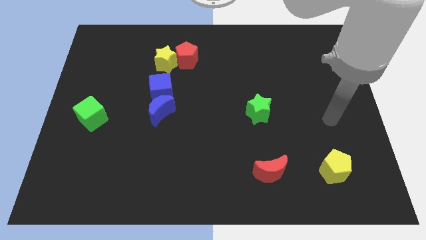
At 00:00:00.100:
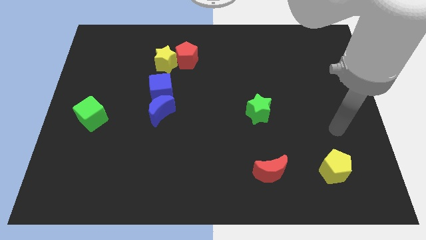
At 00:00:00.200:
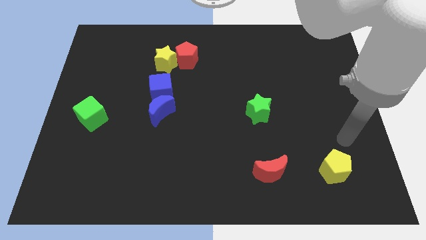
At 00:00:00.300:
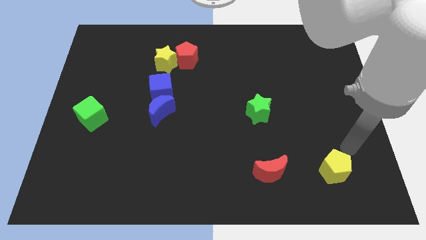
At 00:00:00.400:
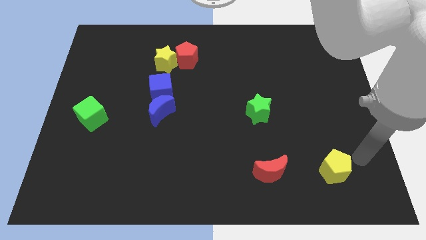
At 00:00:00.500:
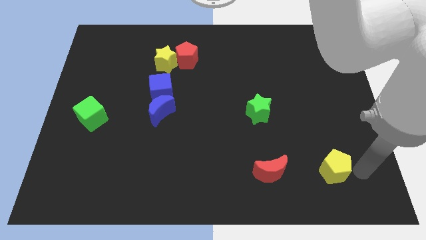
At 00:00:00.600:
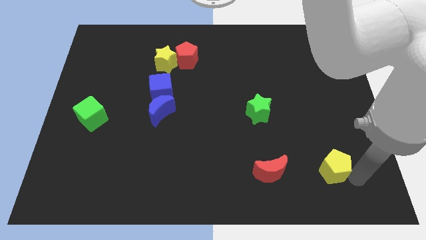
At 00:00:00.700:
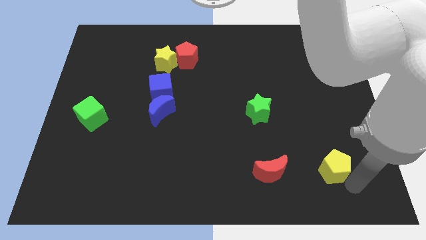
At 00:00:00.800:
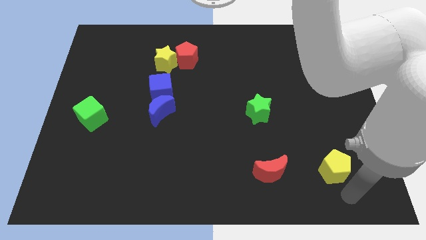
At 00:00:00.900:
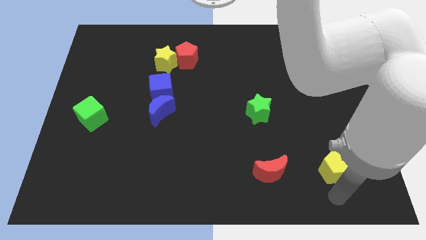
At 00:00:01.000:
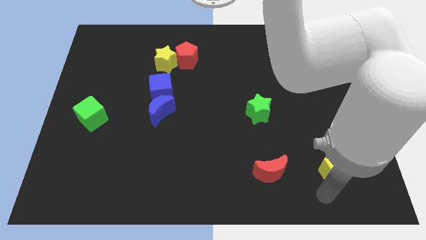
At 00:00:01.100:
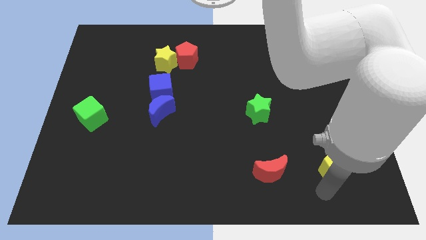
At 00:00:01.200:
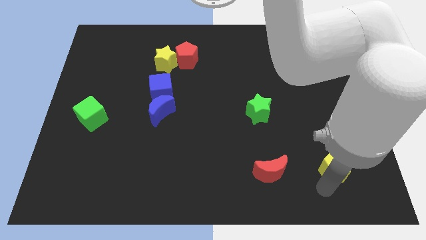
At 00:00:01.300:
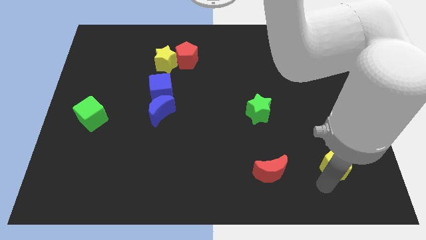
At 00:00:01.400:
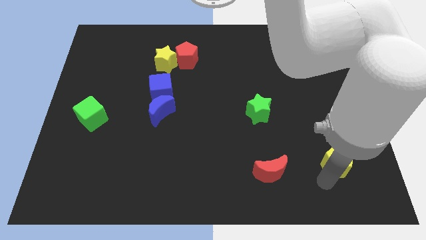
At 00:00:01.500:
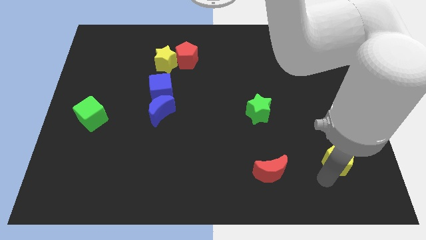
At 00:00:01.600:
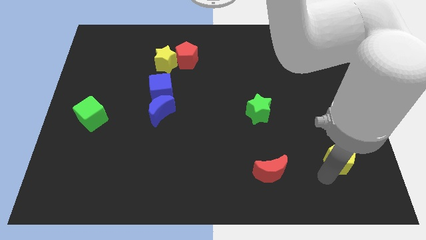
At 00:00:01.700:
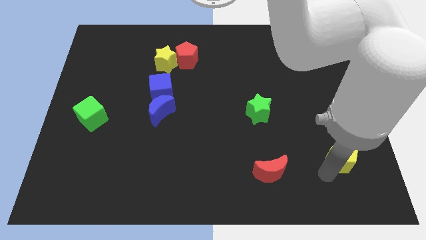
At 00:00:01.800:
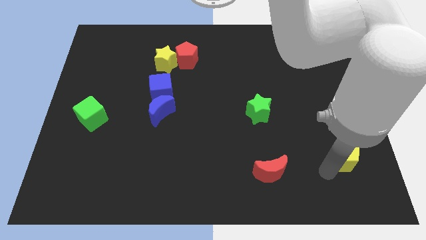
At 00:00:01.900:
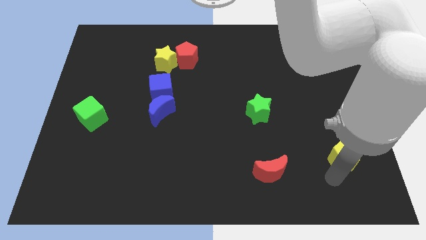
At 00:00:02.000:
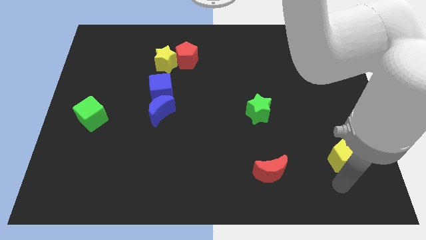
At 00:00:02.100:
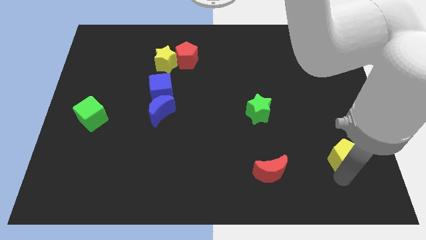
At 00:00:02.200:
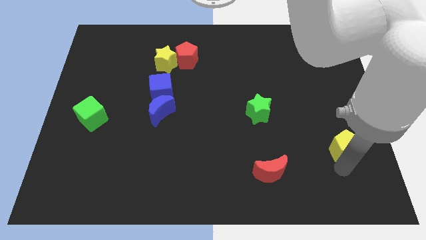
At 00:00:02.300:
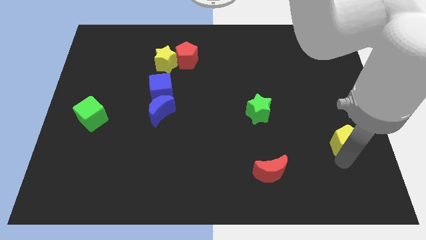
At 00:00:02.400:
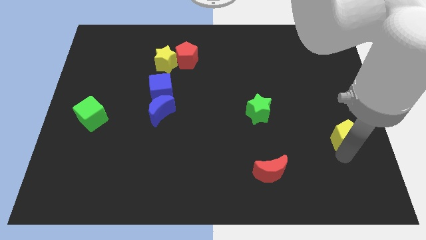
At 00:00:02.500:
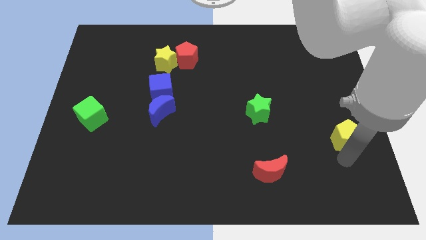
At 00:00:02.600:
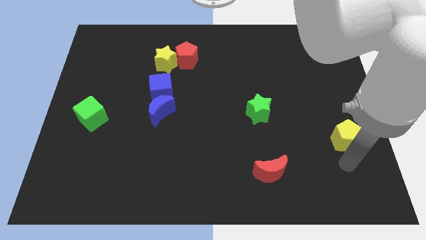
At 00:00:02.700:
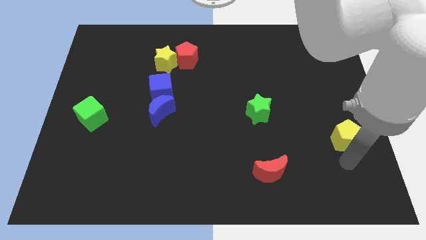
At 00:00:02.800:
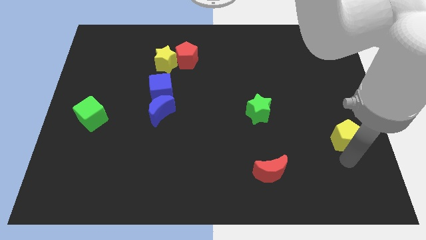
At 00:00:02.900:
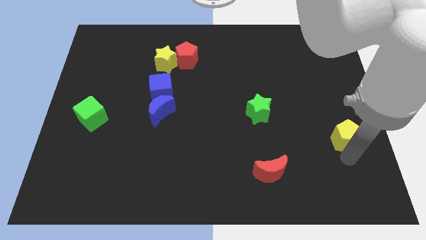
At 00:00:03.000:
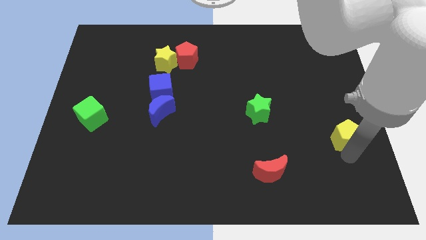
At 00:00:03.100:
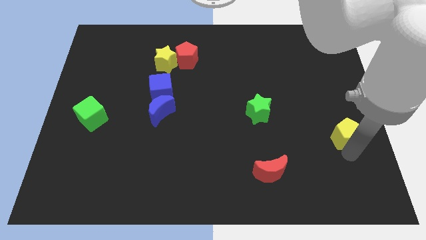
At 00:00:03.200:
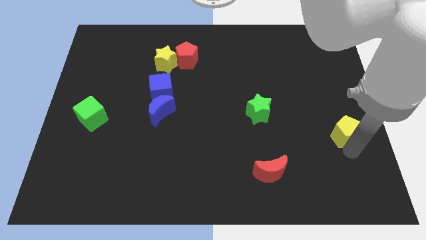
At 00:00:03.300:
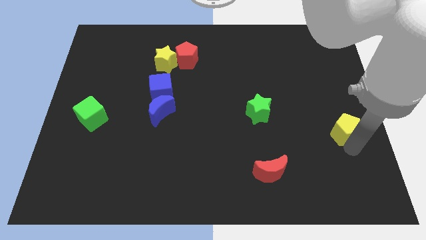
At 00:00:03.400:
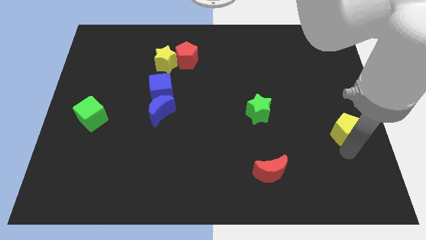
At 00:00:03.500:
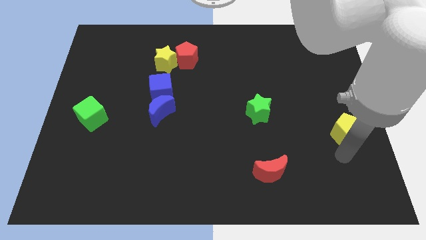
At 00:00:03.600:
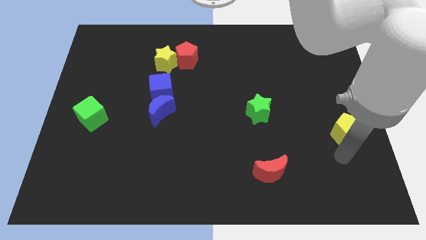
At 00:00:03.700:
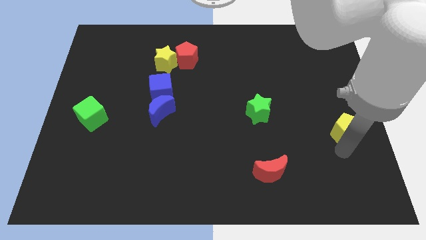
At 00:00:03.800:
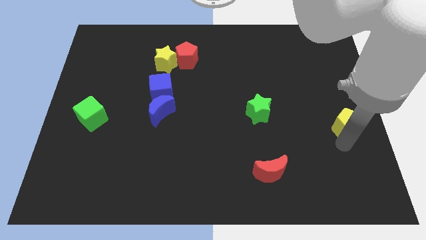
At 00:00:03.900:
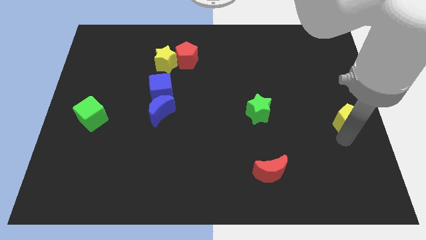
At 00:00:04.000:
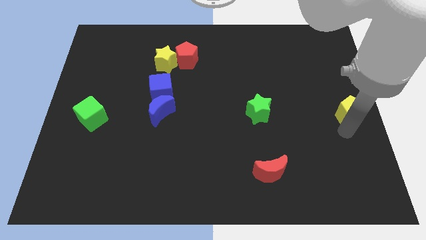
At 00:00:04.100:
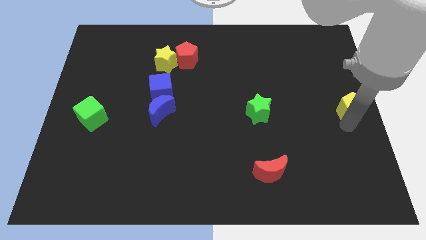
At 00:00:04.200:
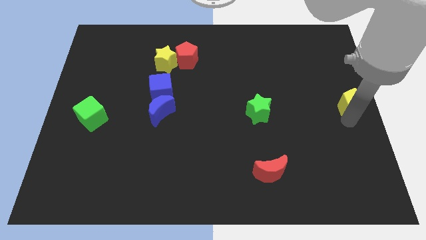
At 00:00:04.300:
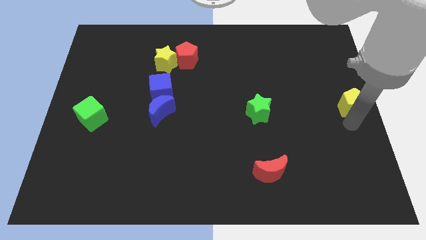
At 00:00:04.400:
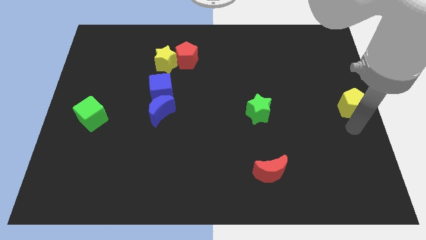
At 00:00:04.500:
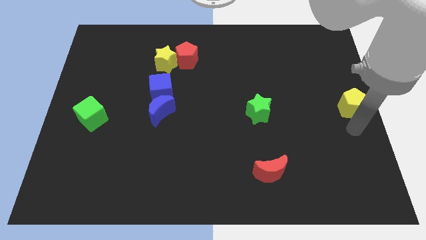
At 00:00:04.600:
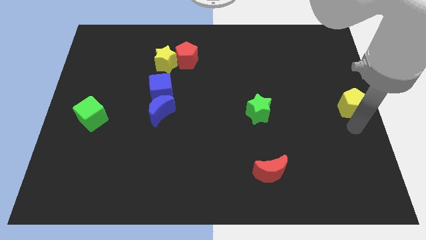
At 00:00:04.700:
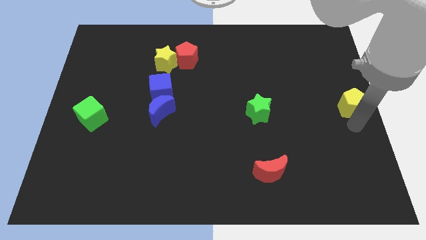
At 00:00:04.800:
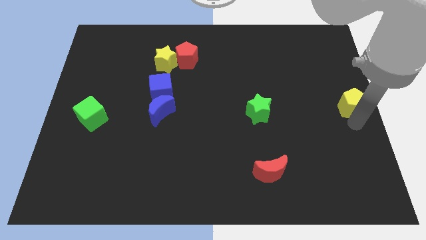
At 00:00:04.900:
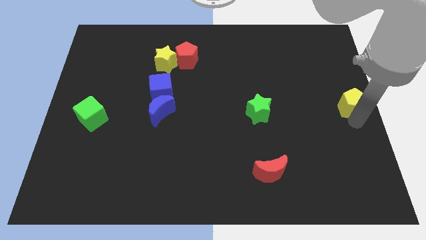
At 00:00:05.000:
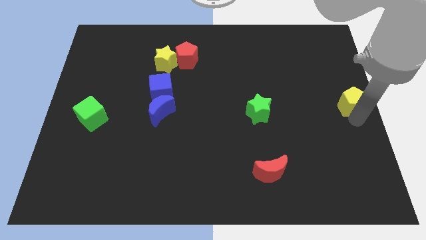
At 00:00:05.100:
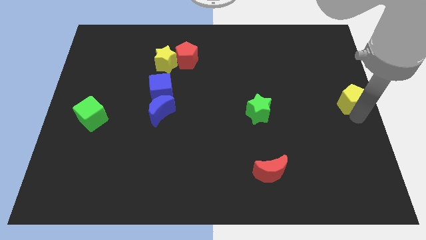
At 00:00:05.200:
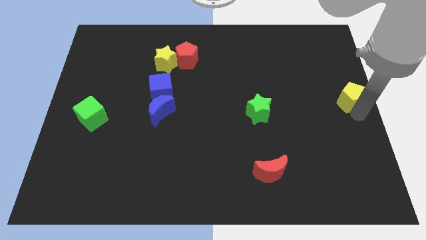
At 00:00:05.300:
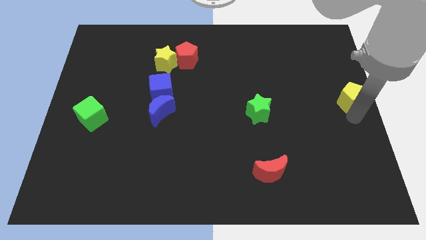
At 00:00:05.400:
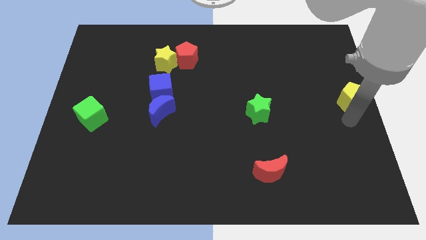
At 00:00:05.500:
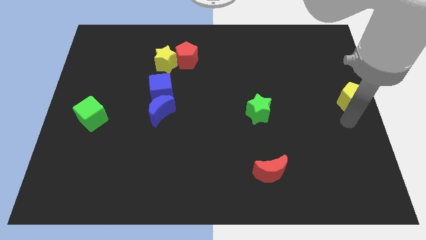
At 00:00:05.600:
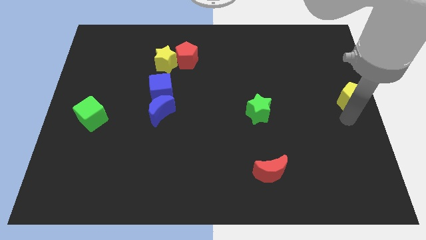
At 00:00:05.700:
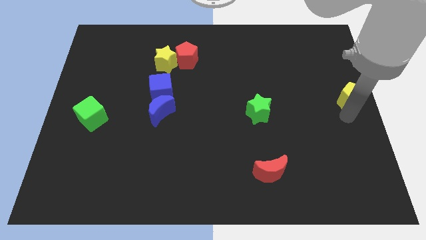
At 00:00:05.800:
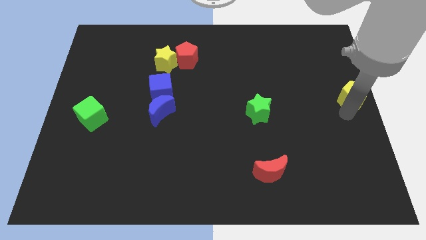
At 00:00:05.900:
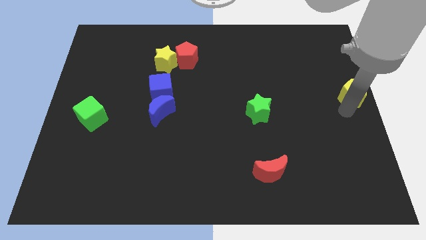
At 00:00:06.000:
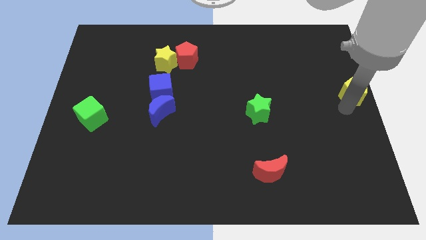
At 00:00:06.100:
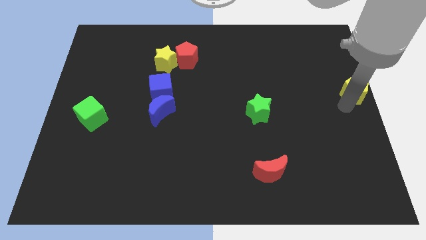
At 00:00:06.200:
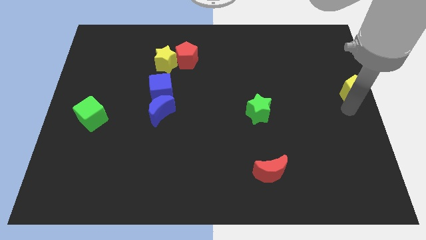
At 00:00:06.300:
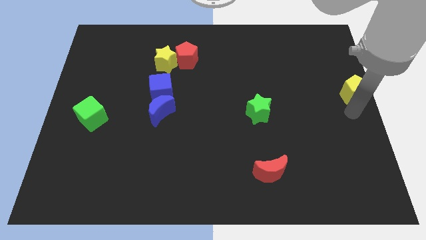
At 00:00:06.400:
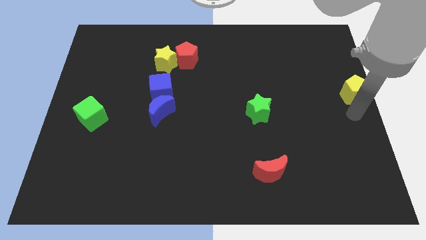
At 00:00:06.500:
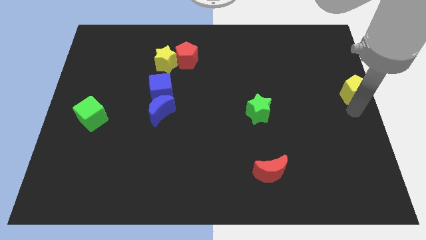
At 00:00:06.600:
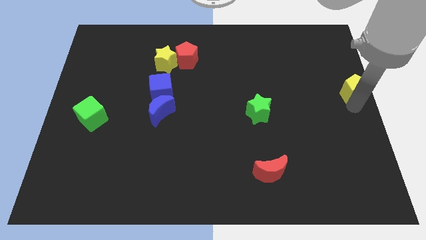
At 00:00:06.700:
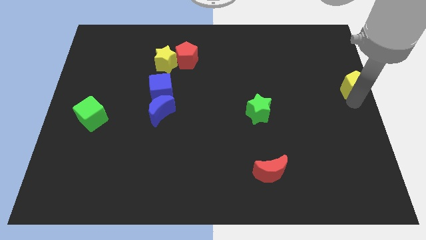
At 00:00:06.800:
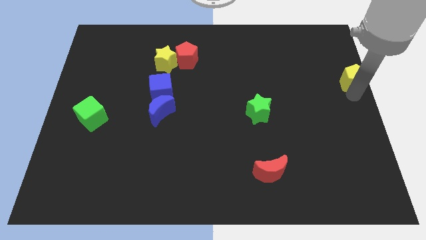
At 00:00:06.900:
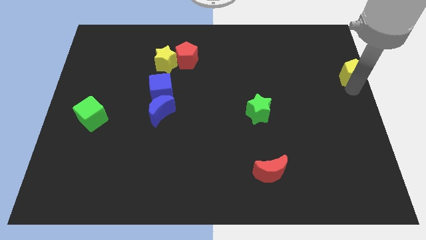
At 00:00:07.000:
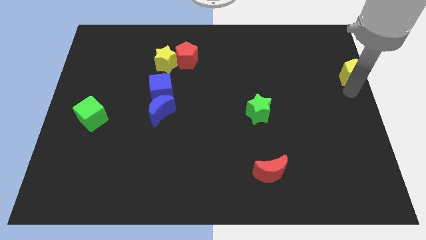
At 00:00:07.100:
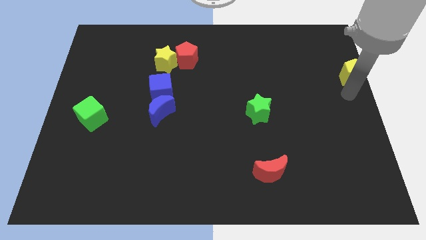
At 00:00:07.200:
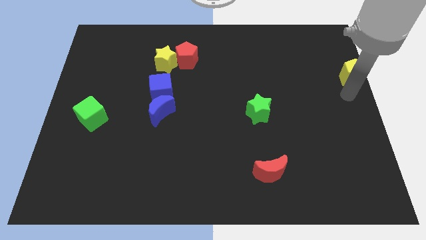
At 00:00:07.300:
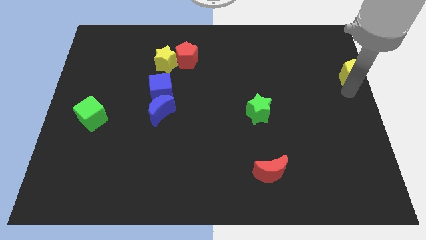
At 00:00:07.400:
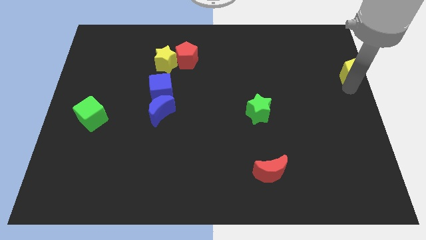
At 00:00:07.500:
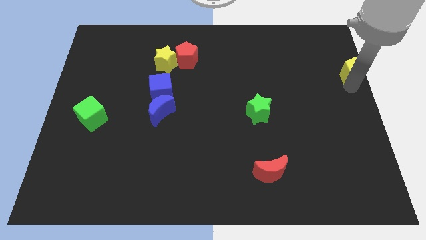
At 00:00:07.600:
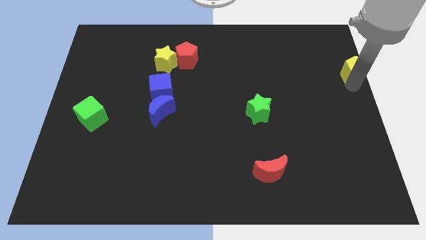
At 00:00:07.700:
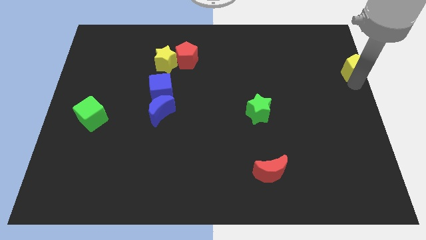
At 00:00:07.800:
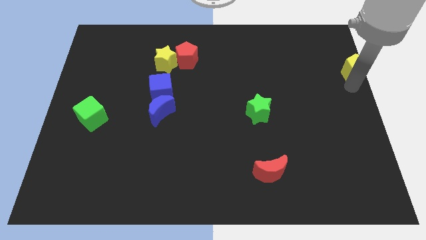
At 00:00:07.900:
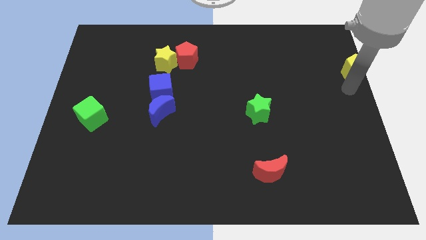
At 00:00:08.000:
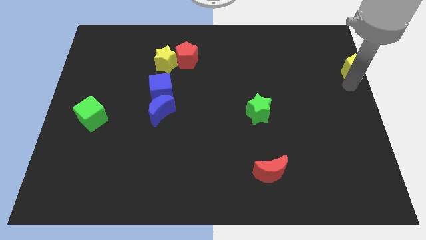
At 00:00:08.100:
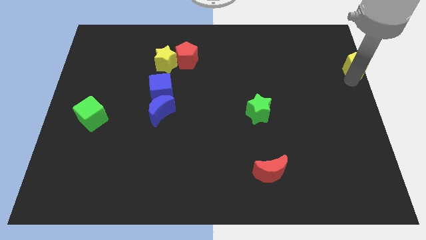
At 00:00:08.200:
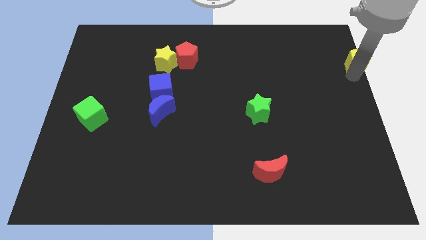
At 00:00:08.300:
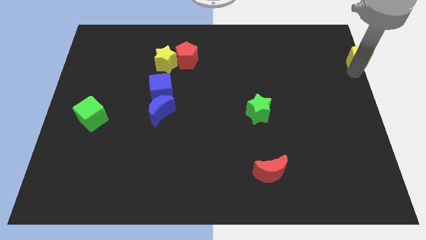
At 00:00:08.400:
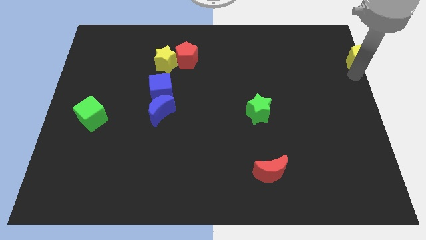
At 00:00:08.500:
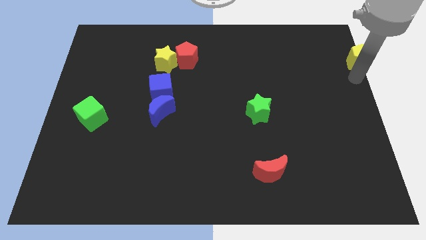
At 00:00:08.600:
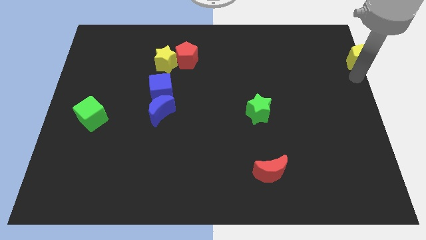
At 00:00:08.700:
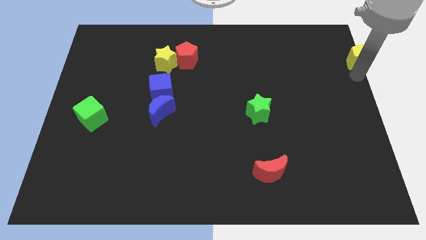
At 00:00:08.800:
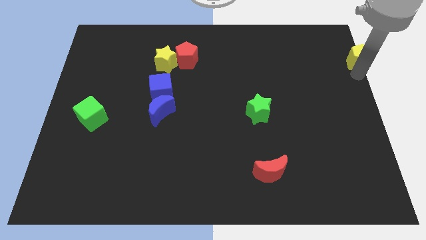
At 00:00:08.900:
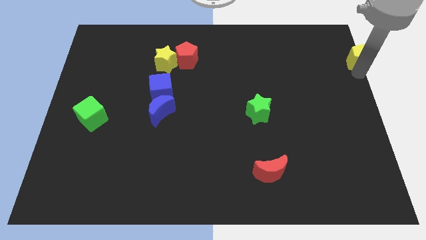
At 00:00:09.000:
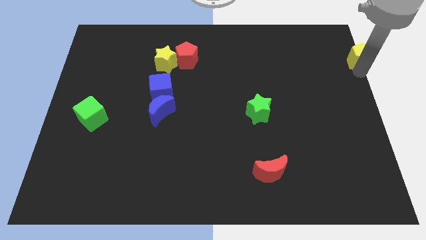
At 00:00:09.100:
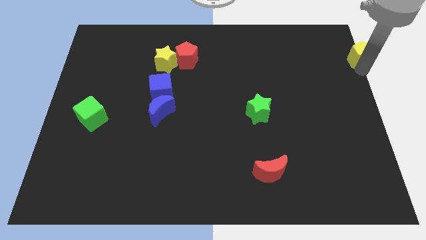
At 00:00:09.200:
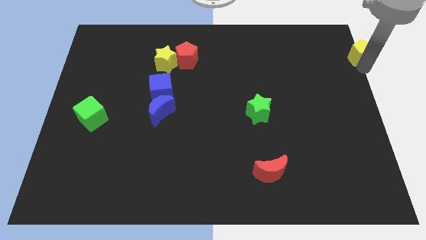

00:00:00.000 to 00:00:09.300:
put the yellow pentagon to the top right of the board
